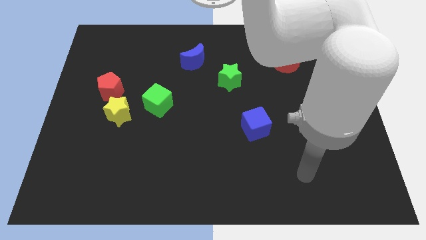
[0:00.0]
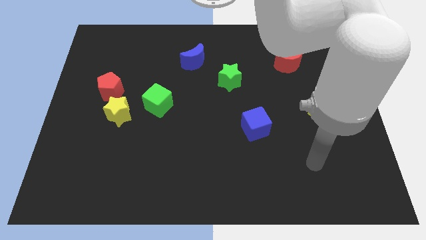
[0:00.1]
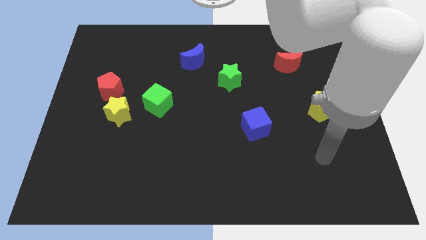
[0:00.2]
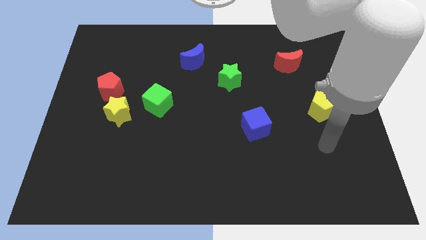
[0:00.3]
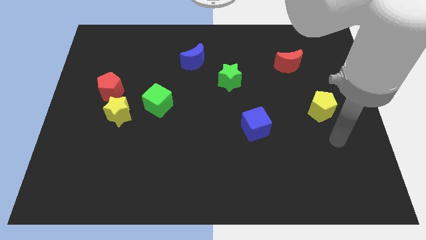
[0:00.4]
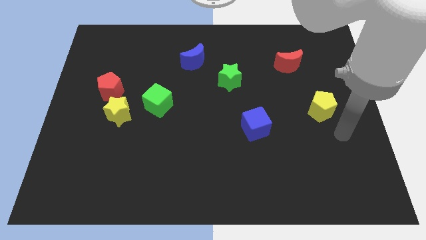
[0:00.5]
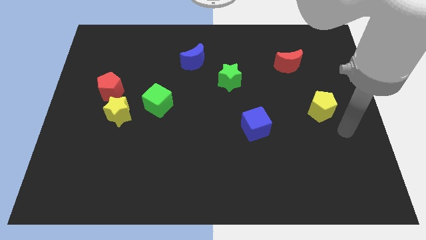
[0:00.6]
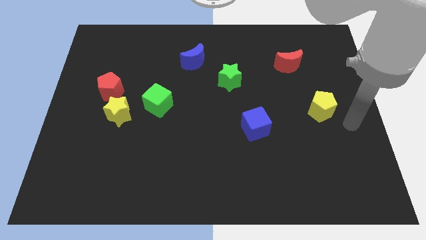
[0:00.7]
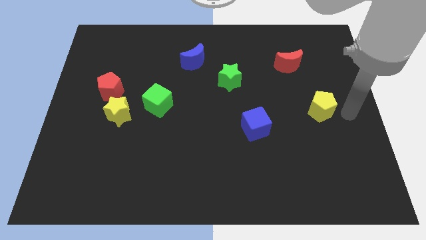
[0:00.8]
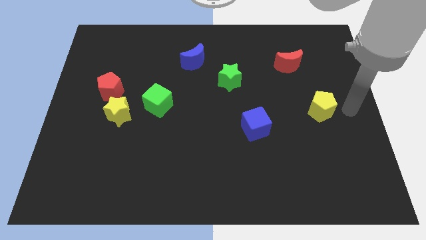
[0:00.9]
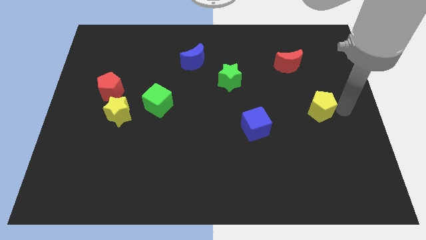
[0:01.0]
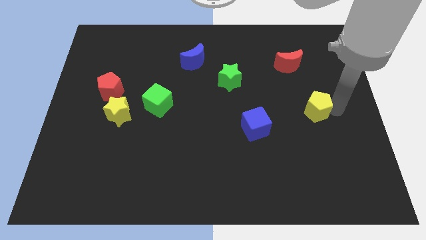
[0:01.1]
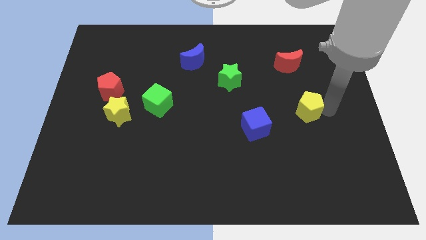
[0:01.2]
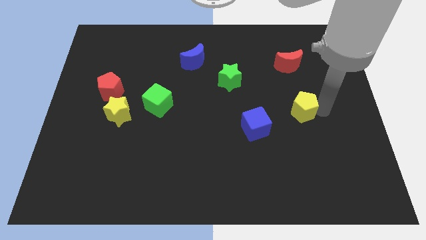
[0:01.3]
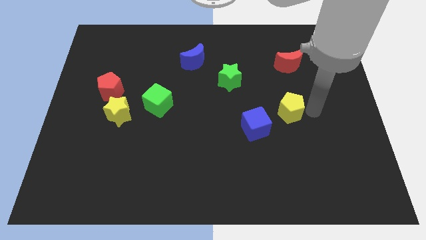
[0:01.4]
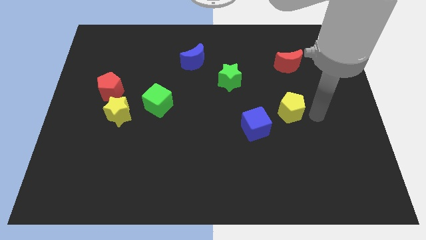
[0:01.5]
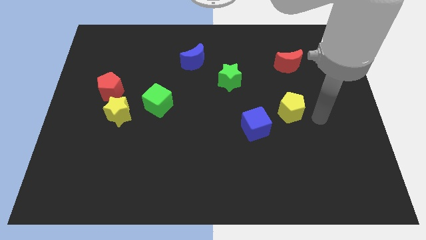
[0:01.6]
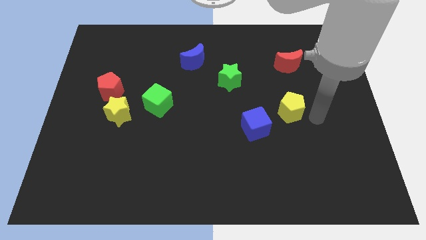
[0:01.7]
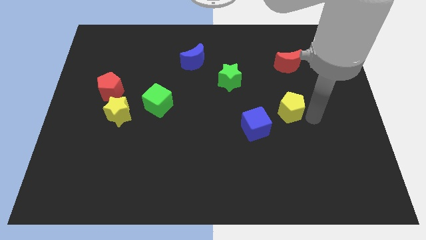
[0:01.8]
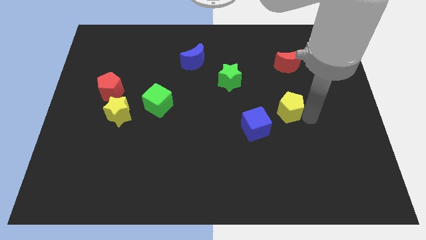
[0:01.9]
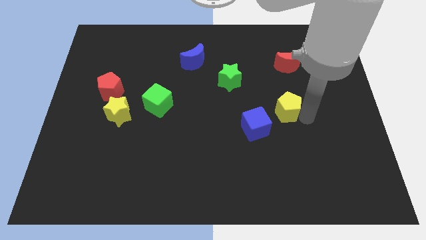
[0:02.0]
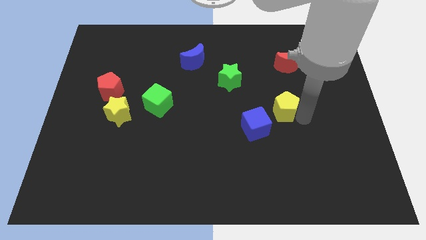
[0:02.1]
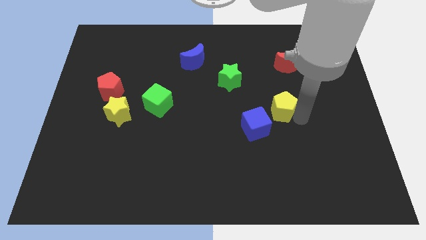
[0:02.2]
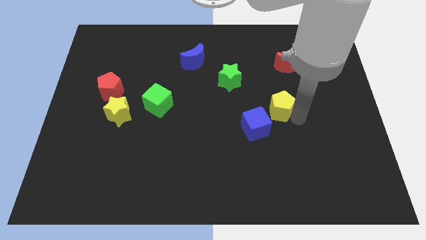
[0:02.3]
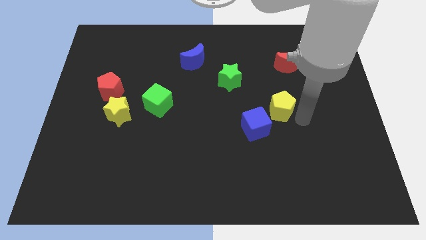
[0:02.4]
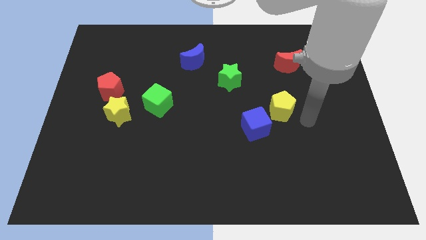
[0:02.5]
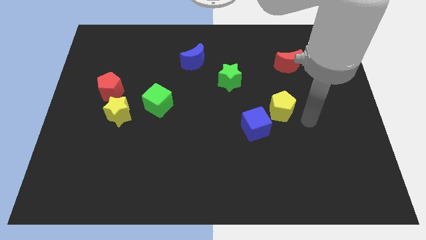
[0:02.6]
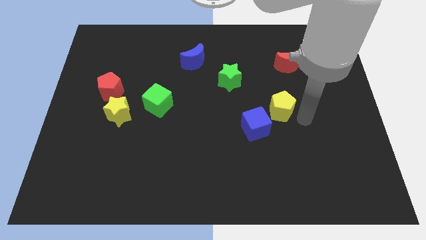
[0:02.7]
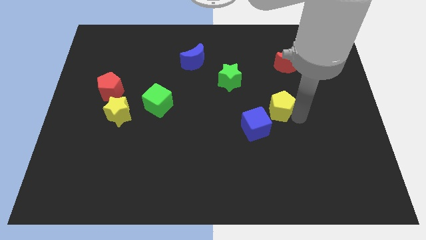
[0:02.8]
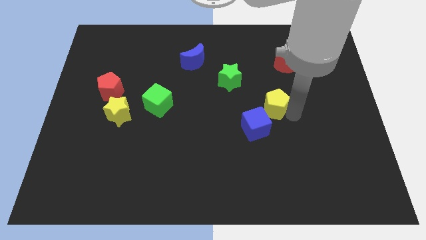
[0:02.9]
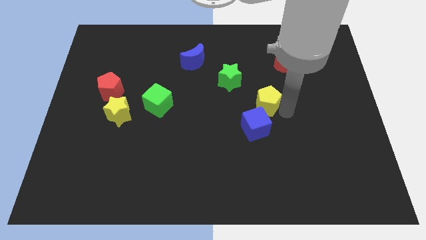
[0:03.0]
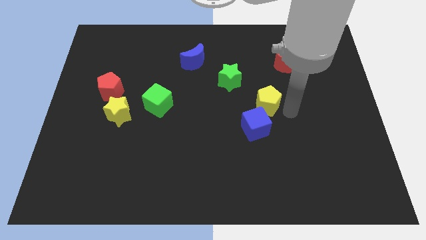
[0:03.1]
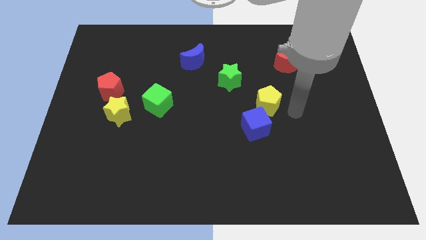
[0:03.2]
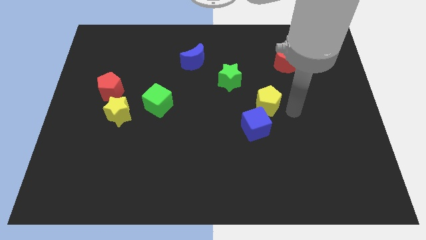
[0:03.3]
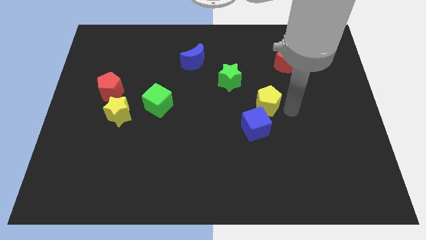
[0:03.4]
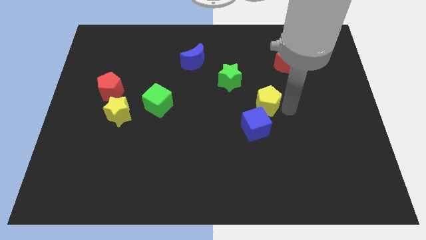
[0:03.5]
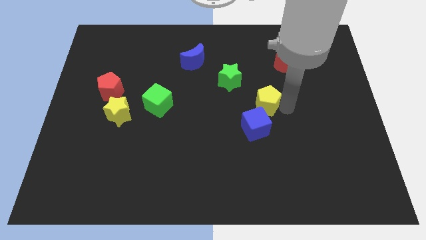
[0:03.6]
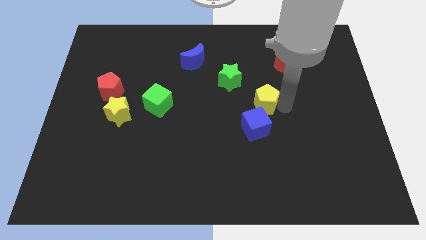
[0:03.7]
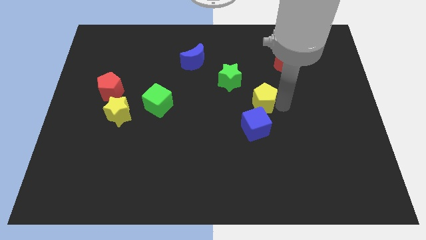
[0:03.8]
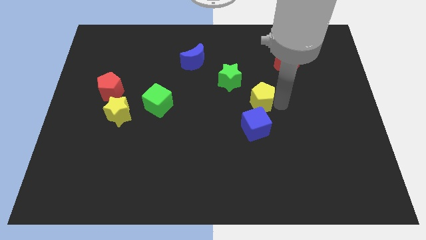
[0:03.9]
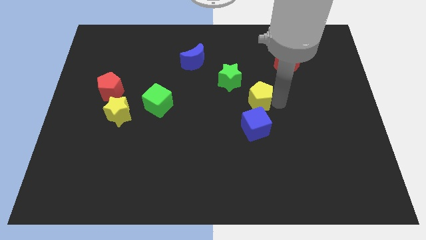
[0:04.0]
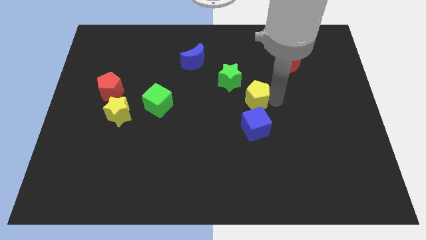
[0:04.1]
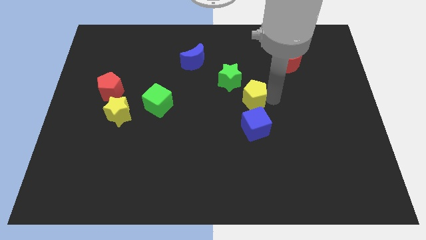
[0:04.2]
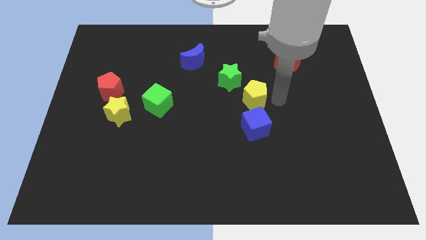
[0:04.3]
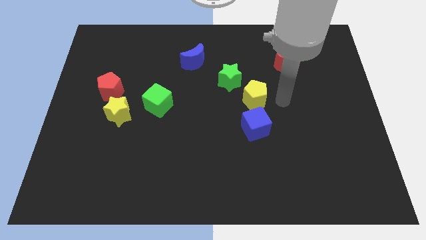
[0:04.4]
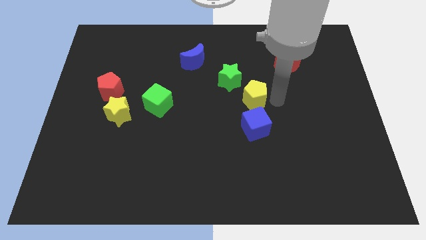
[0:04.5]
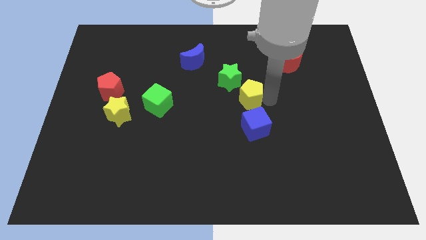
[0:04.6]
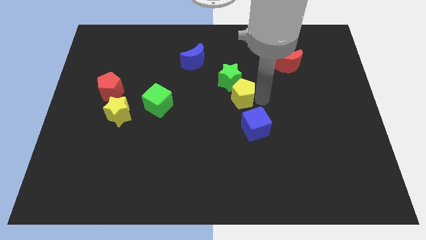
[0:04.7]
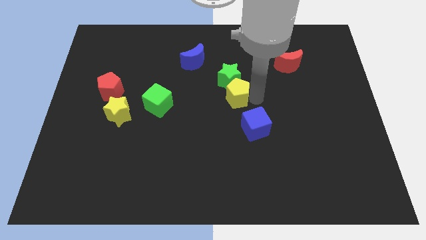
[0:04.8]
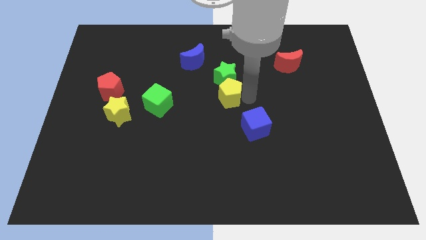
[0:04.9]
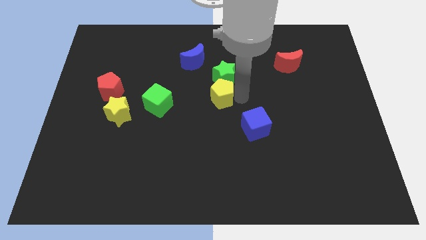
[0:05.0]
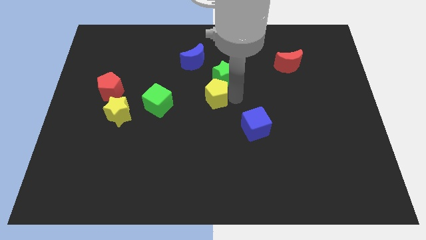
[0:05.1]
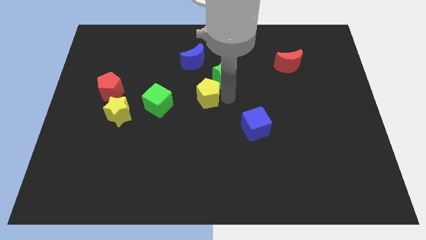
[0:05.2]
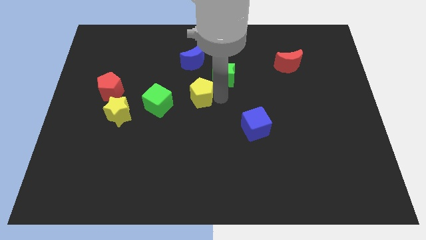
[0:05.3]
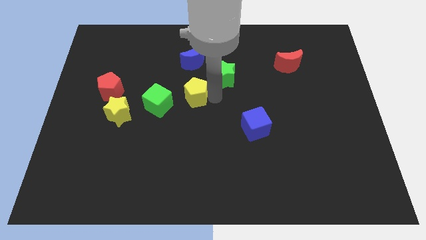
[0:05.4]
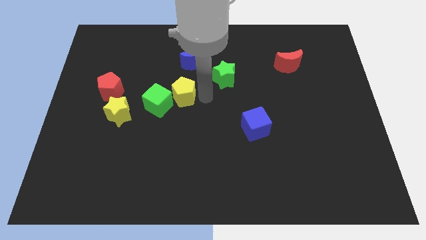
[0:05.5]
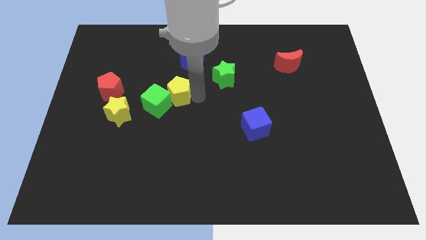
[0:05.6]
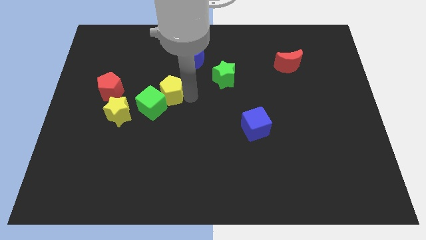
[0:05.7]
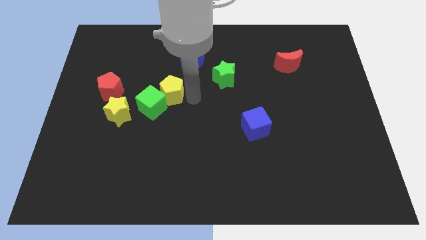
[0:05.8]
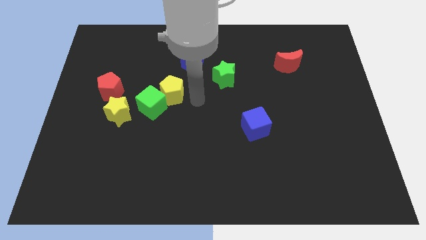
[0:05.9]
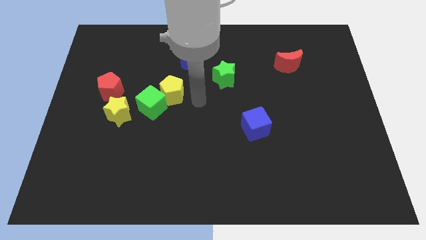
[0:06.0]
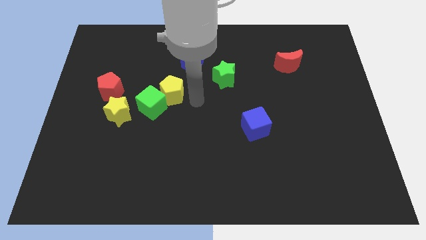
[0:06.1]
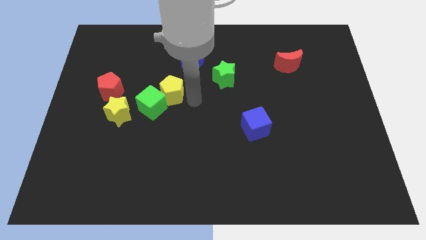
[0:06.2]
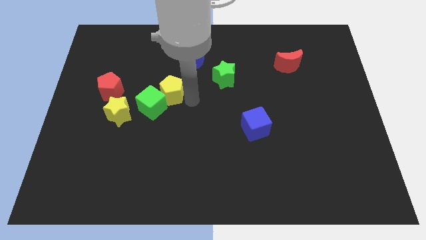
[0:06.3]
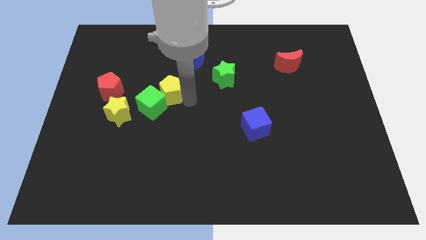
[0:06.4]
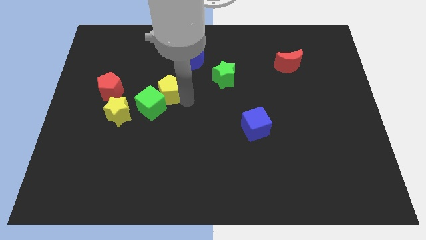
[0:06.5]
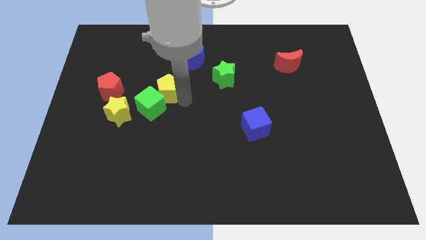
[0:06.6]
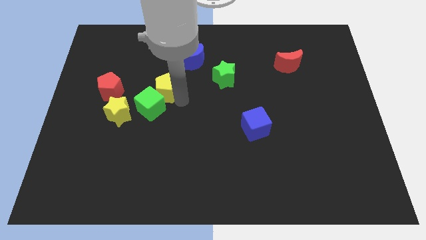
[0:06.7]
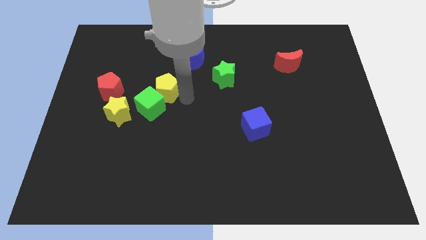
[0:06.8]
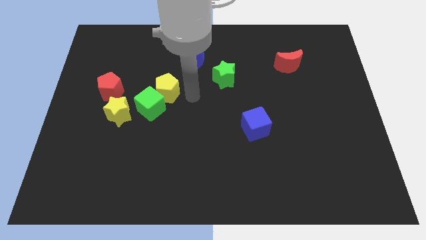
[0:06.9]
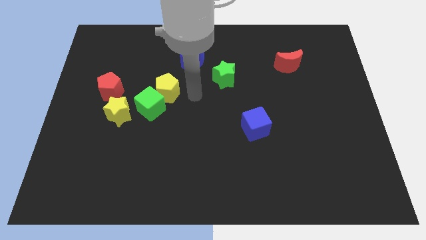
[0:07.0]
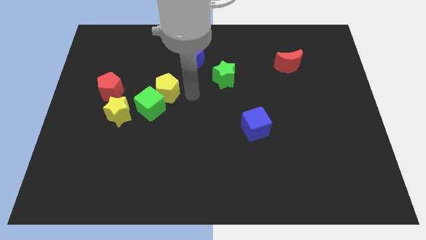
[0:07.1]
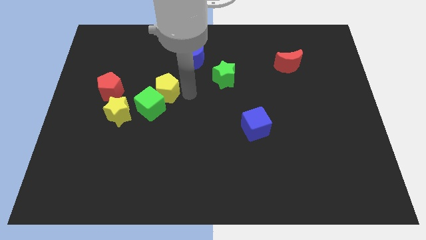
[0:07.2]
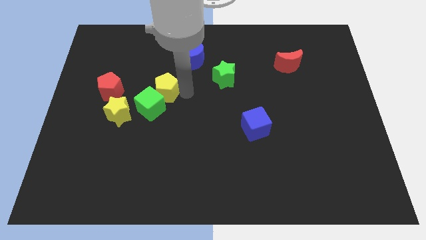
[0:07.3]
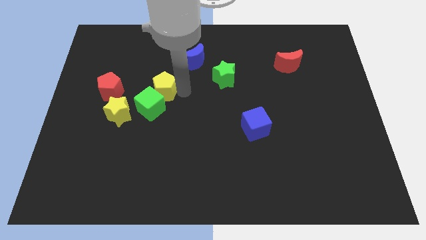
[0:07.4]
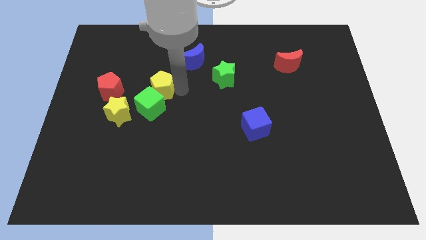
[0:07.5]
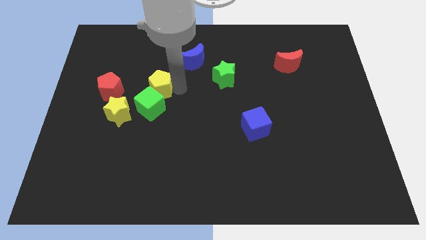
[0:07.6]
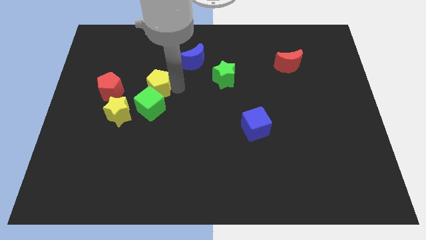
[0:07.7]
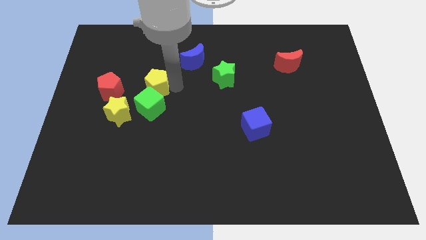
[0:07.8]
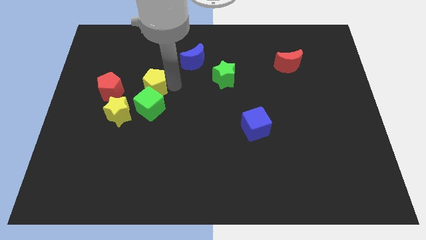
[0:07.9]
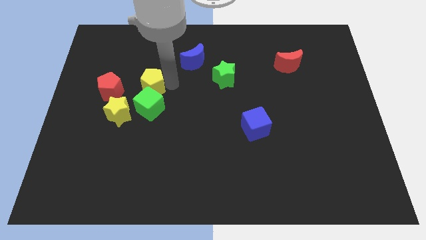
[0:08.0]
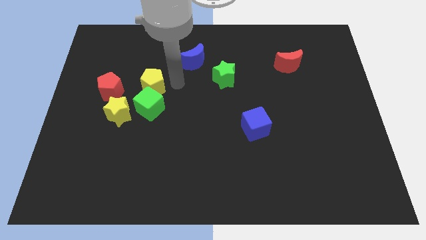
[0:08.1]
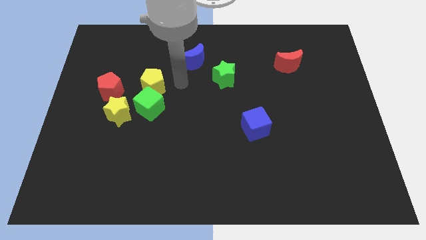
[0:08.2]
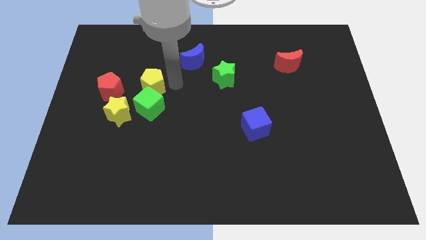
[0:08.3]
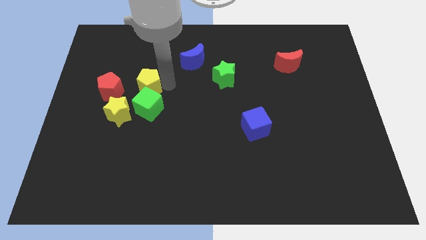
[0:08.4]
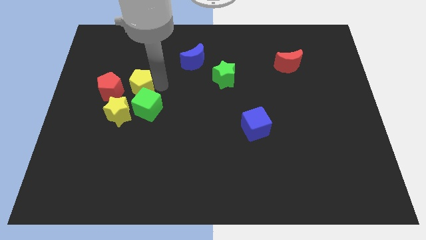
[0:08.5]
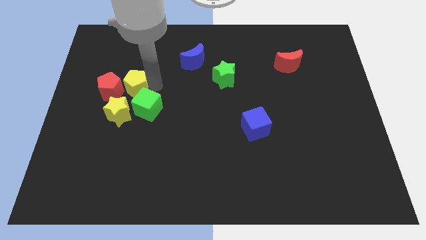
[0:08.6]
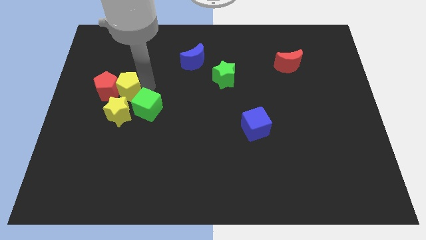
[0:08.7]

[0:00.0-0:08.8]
put the yellow pentagon next to the red pentagon
